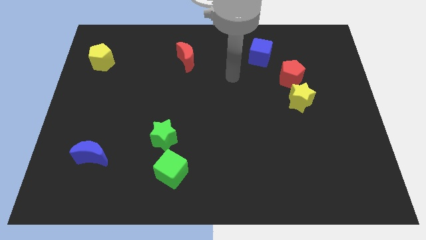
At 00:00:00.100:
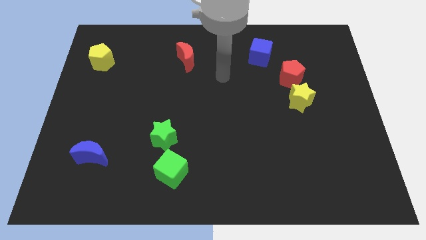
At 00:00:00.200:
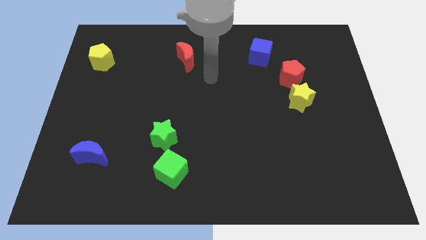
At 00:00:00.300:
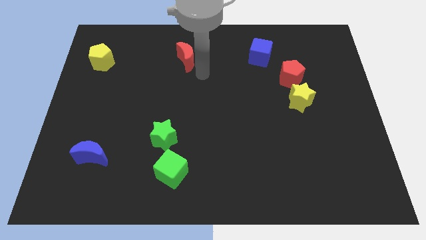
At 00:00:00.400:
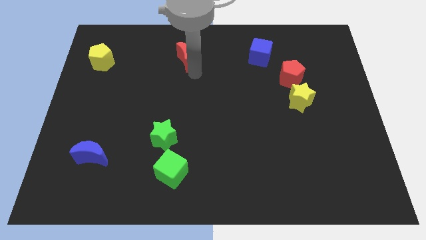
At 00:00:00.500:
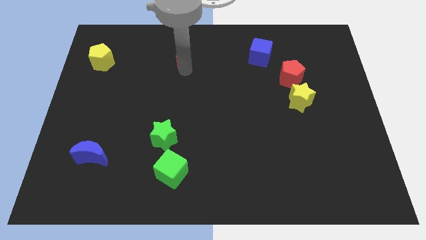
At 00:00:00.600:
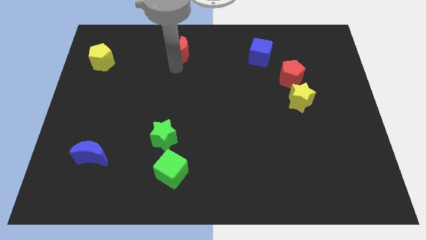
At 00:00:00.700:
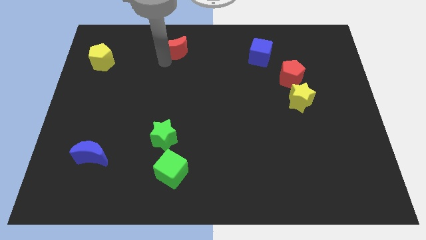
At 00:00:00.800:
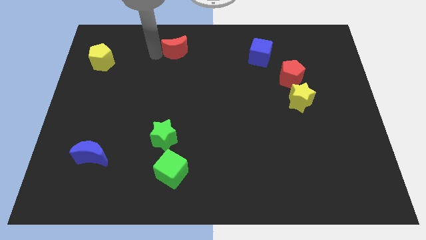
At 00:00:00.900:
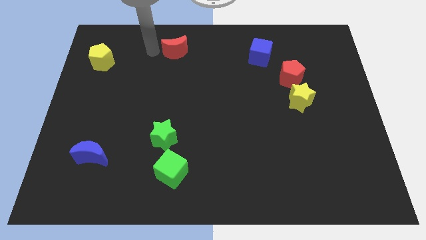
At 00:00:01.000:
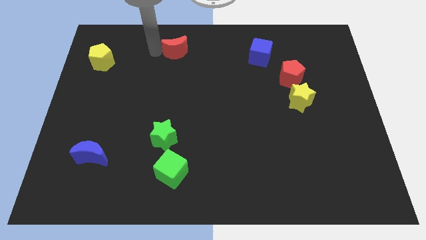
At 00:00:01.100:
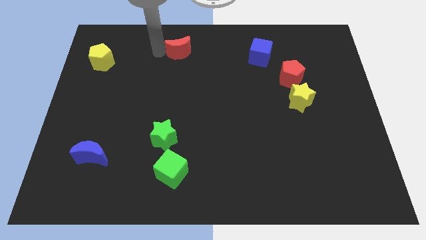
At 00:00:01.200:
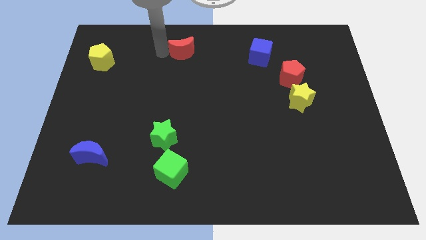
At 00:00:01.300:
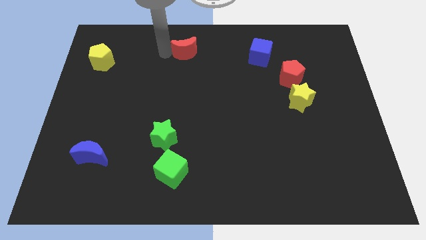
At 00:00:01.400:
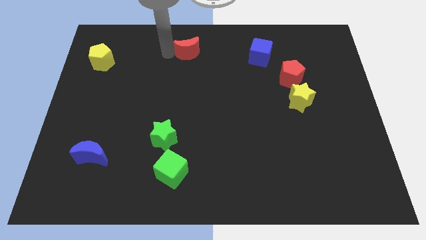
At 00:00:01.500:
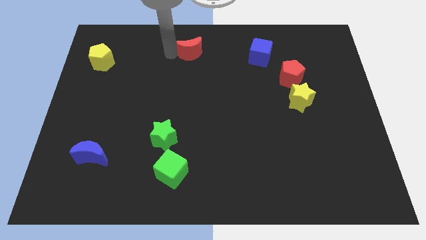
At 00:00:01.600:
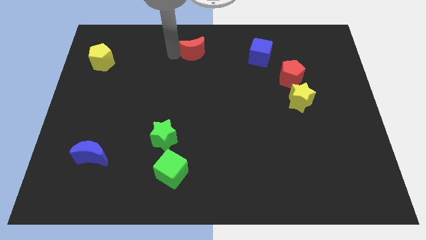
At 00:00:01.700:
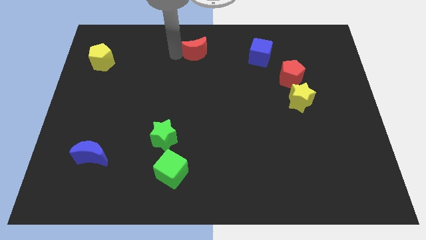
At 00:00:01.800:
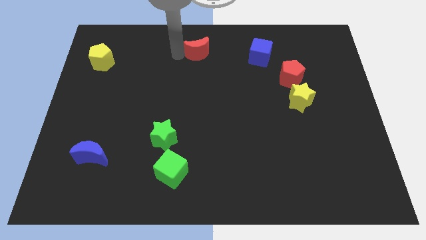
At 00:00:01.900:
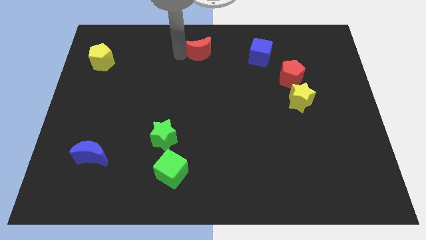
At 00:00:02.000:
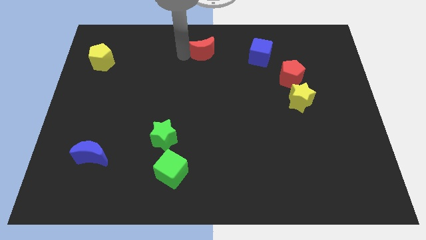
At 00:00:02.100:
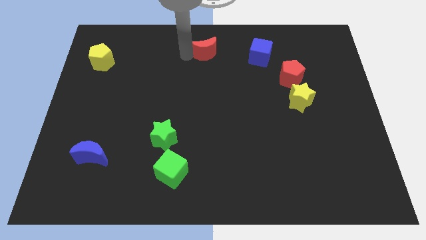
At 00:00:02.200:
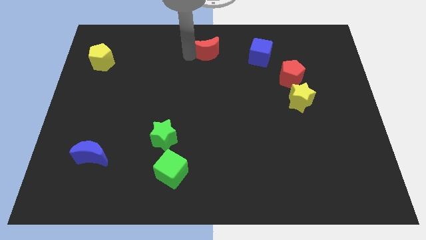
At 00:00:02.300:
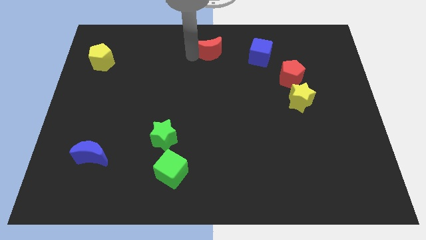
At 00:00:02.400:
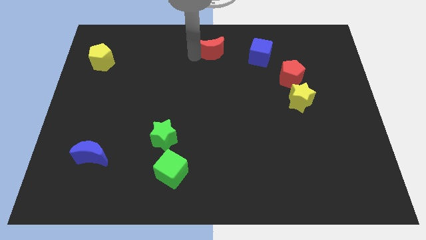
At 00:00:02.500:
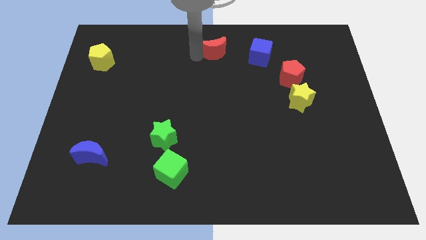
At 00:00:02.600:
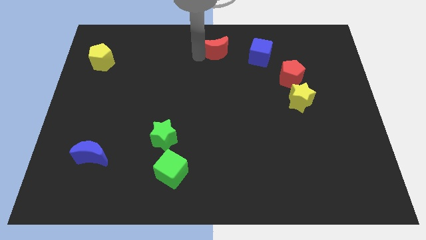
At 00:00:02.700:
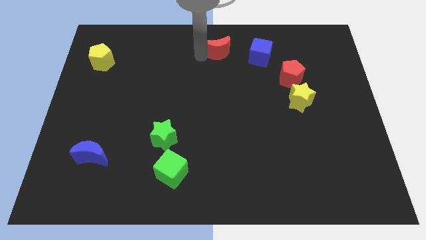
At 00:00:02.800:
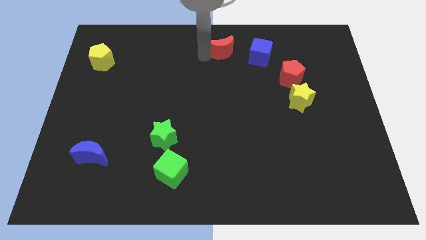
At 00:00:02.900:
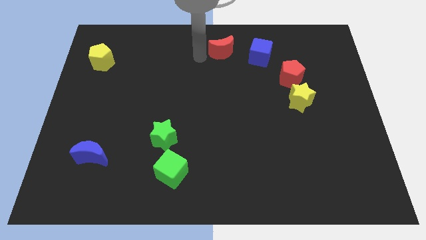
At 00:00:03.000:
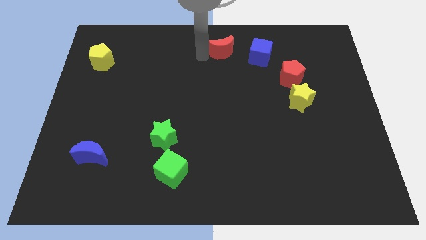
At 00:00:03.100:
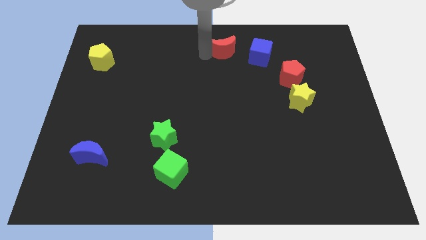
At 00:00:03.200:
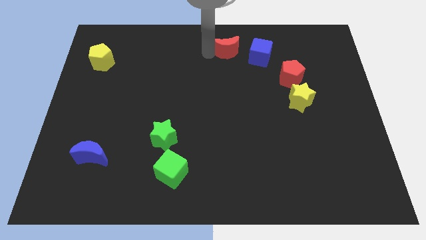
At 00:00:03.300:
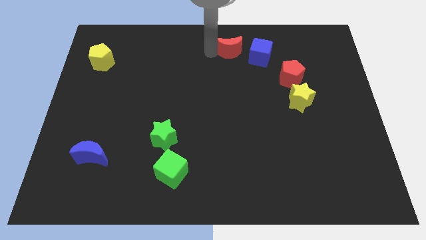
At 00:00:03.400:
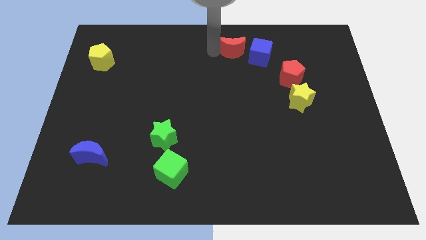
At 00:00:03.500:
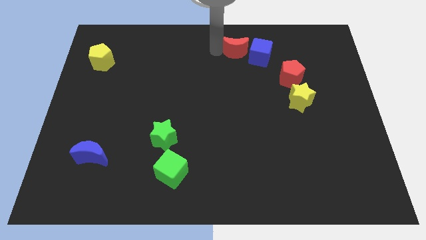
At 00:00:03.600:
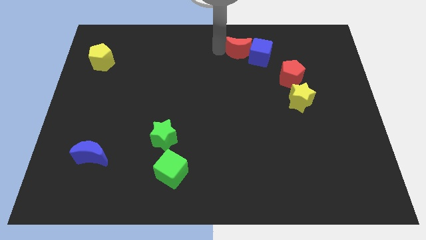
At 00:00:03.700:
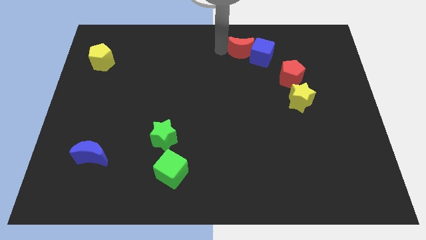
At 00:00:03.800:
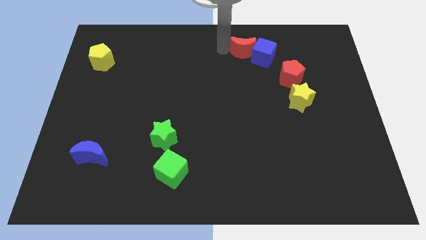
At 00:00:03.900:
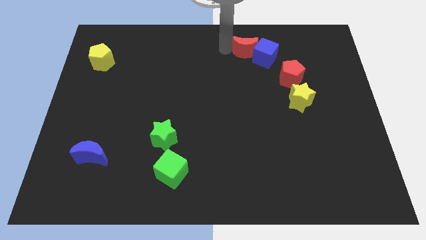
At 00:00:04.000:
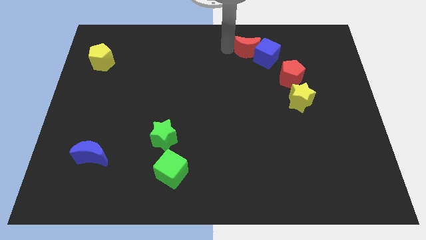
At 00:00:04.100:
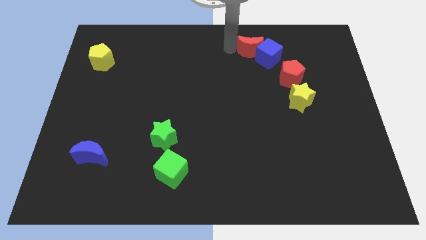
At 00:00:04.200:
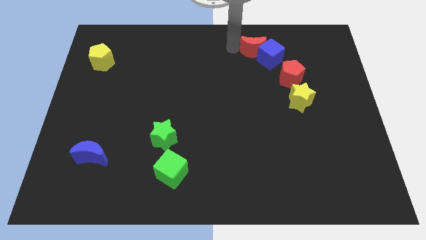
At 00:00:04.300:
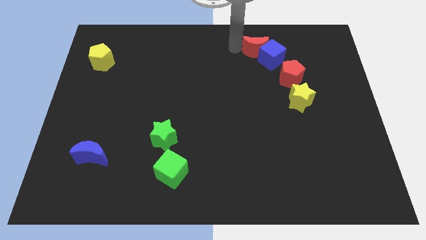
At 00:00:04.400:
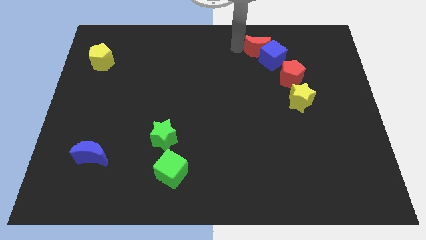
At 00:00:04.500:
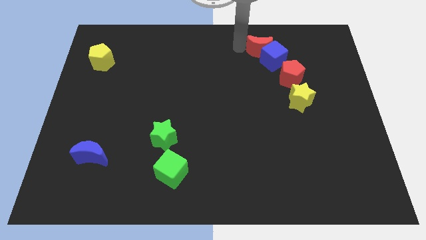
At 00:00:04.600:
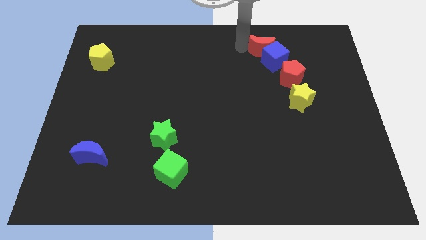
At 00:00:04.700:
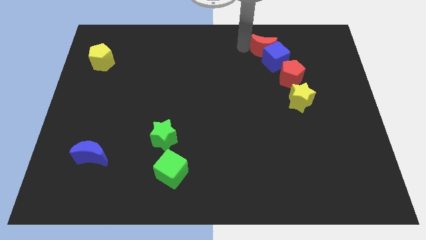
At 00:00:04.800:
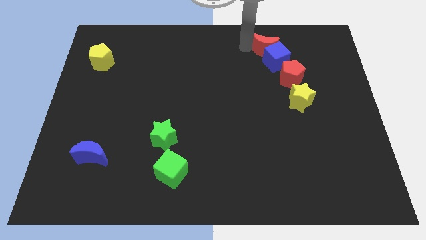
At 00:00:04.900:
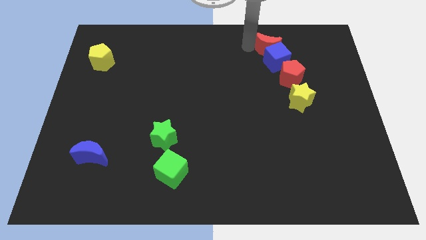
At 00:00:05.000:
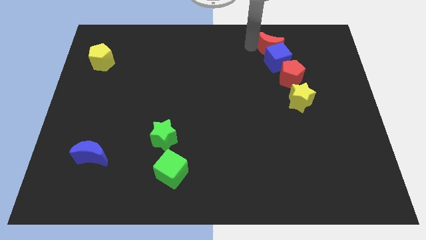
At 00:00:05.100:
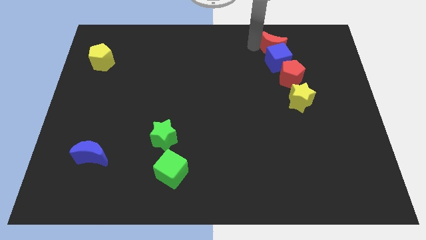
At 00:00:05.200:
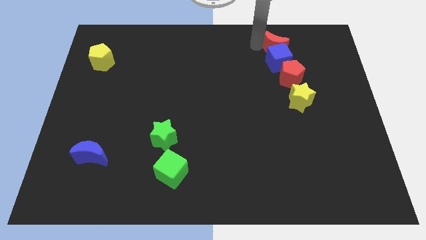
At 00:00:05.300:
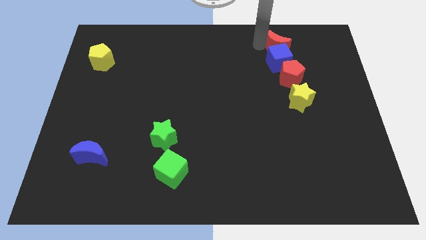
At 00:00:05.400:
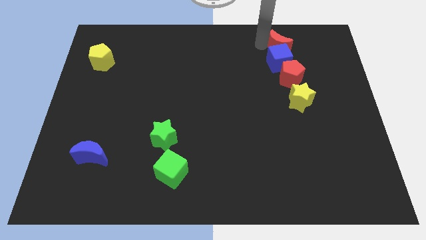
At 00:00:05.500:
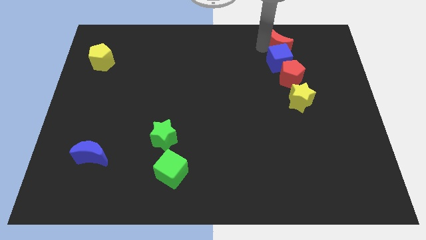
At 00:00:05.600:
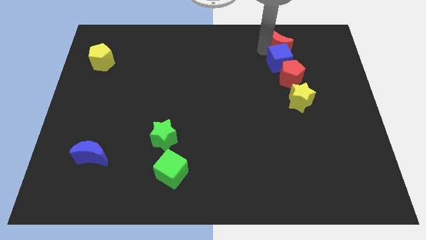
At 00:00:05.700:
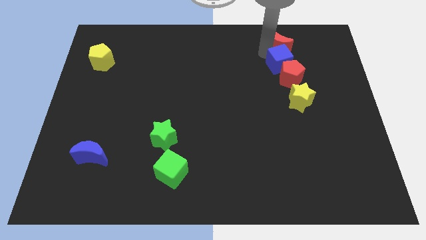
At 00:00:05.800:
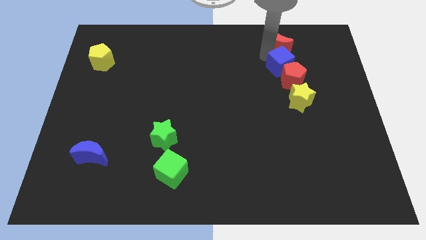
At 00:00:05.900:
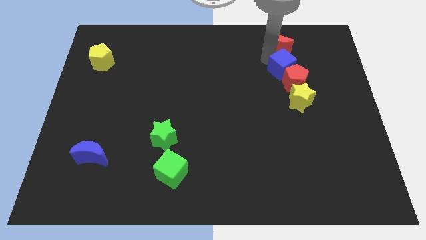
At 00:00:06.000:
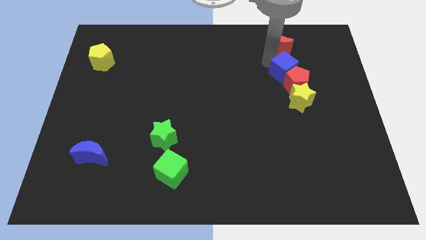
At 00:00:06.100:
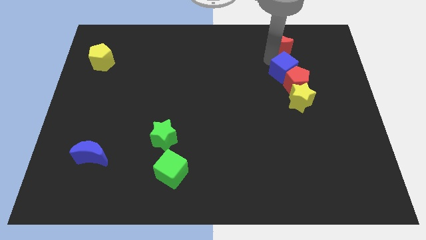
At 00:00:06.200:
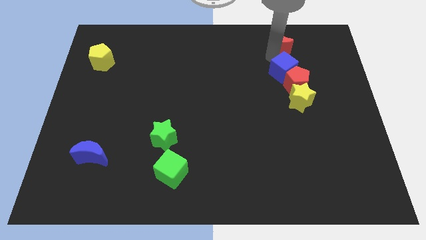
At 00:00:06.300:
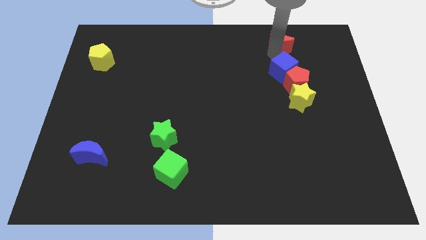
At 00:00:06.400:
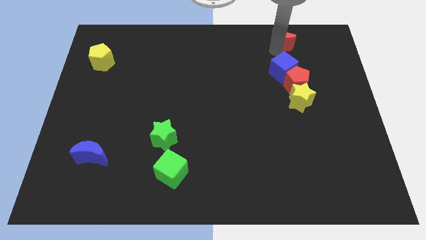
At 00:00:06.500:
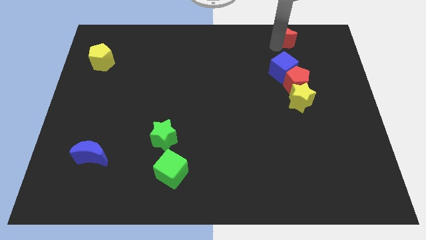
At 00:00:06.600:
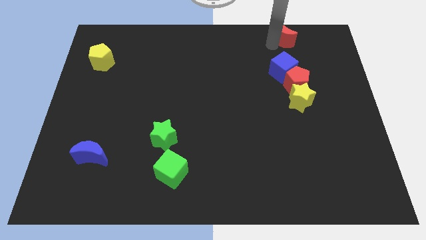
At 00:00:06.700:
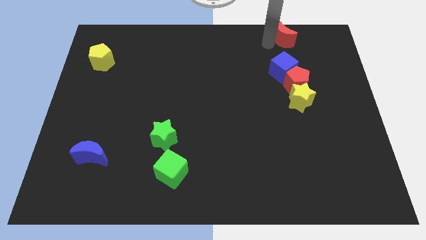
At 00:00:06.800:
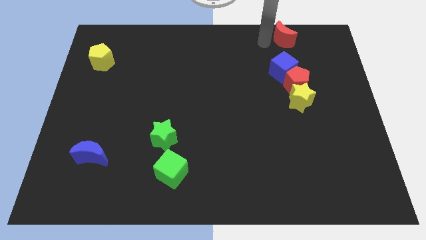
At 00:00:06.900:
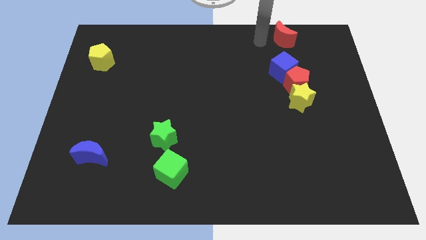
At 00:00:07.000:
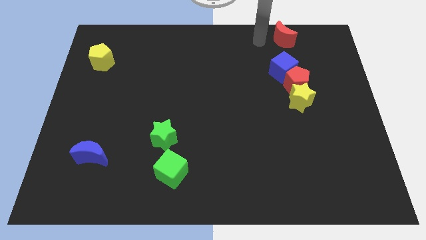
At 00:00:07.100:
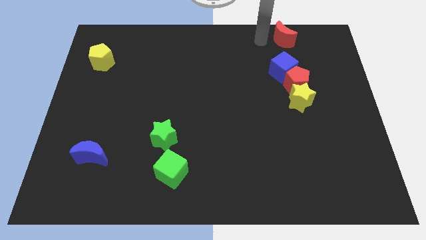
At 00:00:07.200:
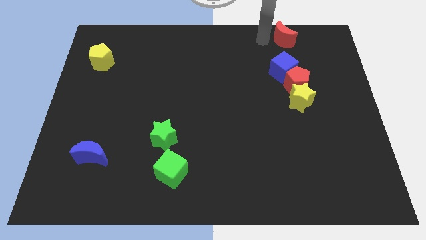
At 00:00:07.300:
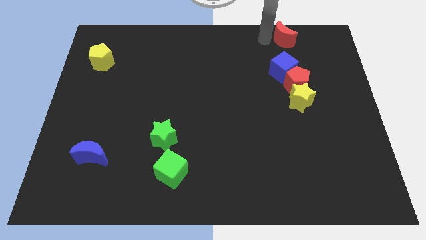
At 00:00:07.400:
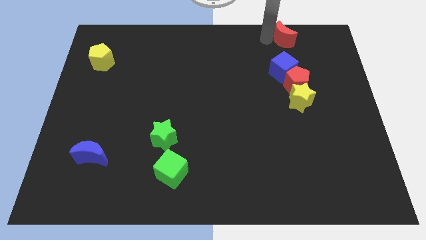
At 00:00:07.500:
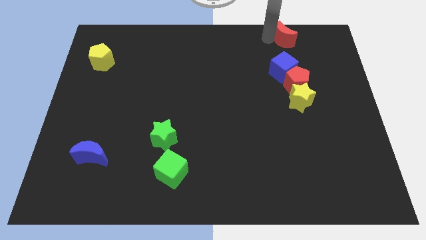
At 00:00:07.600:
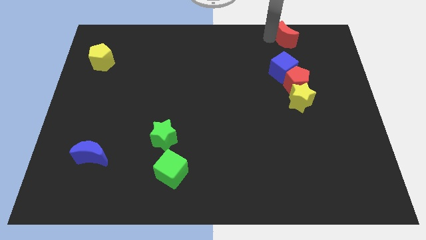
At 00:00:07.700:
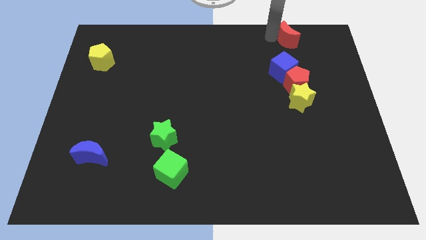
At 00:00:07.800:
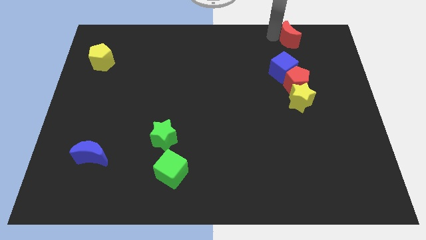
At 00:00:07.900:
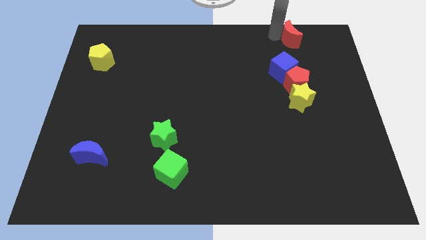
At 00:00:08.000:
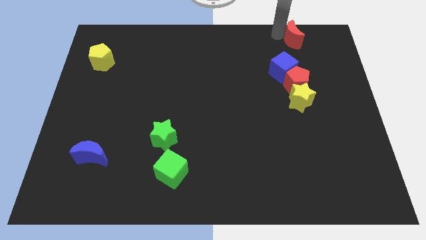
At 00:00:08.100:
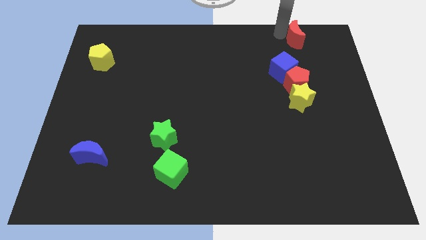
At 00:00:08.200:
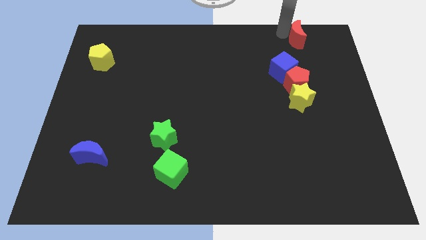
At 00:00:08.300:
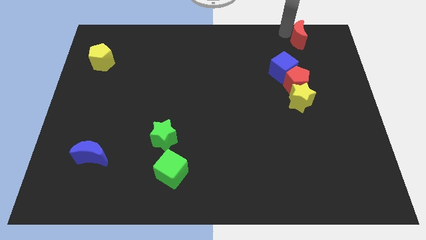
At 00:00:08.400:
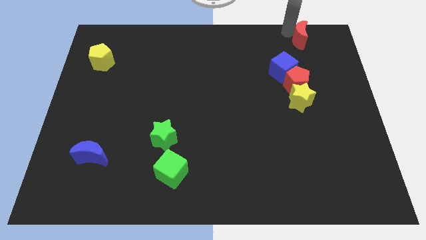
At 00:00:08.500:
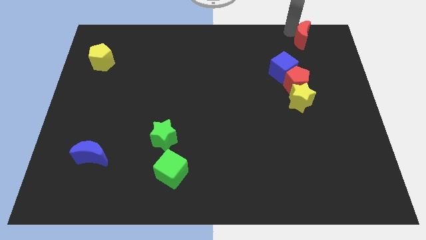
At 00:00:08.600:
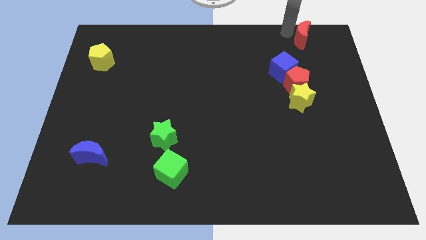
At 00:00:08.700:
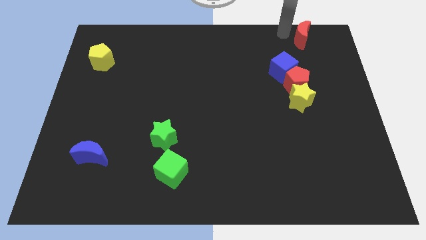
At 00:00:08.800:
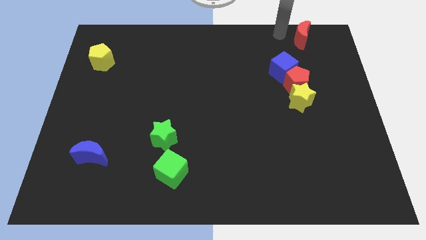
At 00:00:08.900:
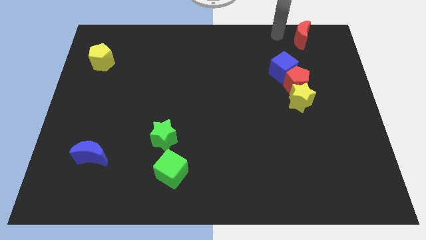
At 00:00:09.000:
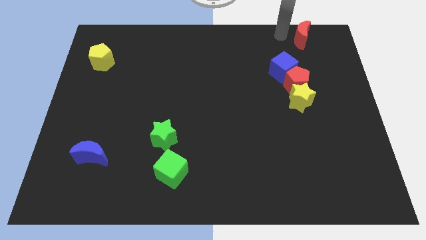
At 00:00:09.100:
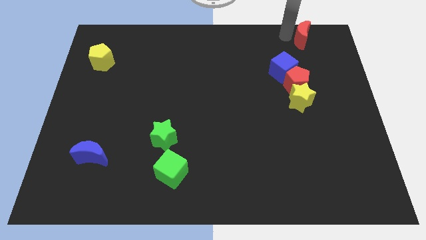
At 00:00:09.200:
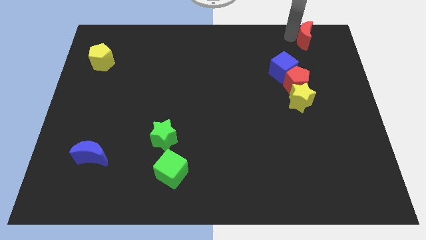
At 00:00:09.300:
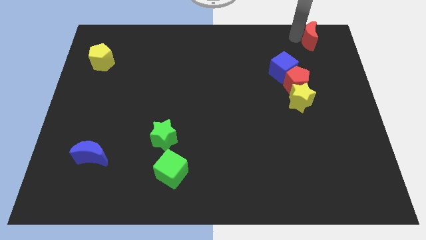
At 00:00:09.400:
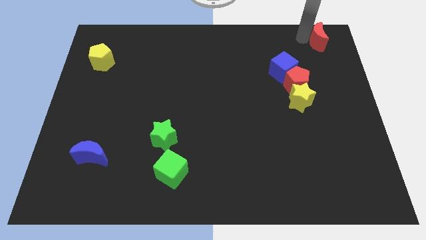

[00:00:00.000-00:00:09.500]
push the red moon to the top right of the board
